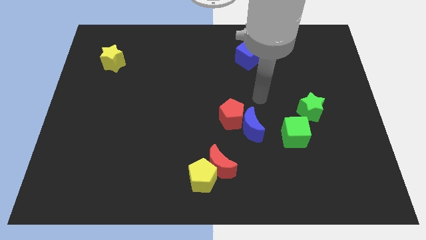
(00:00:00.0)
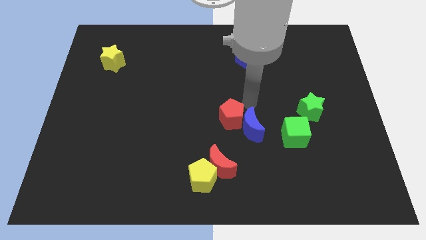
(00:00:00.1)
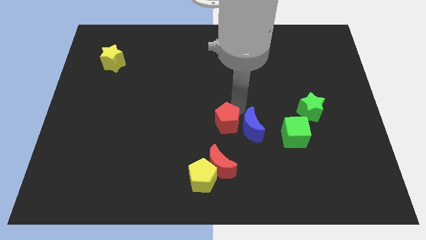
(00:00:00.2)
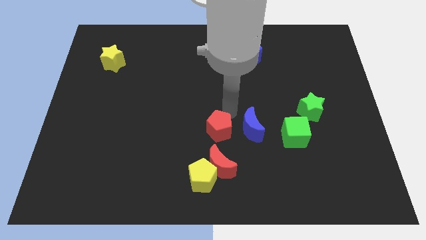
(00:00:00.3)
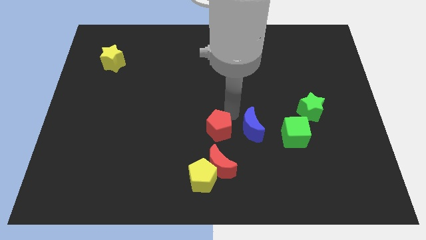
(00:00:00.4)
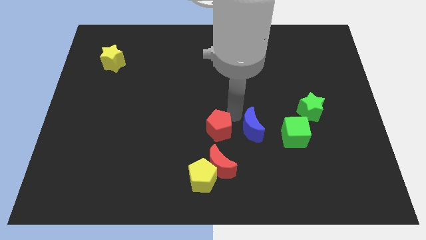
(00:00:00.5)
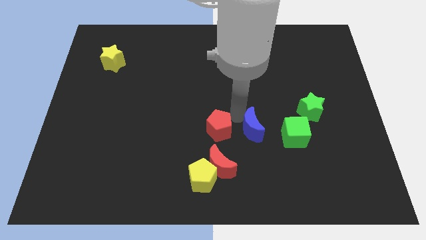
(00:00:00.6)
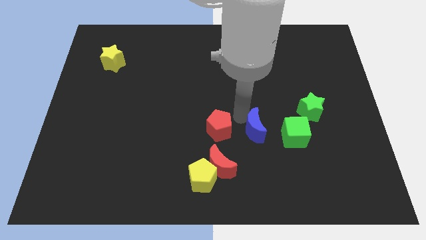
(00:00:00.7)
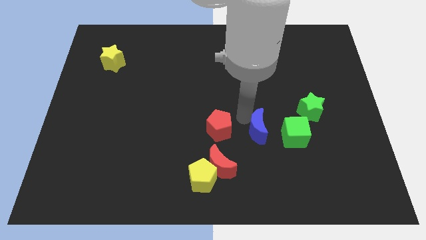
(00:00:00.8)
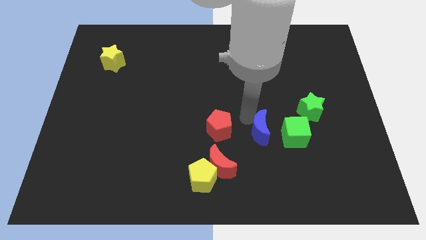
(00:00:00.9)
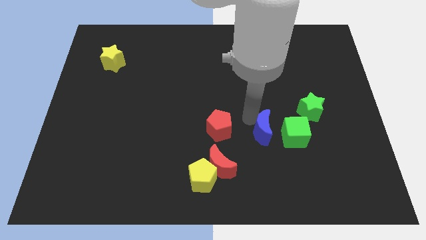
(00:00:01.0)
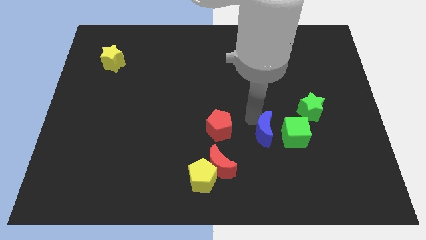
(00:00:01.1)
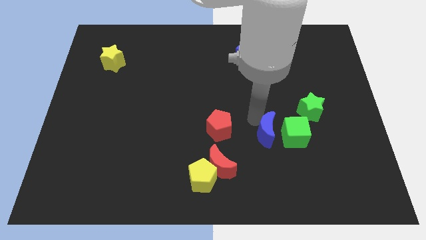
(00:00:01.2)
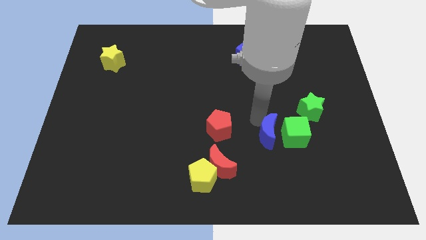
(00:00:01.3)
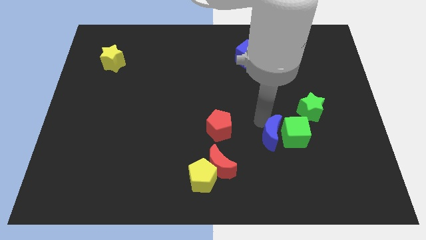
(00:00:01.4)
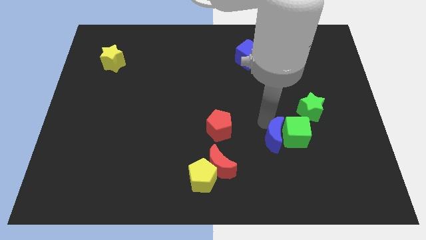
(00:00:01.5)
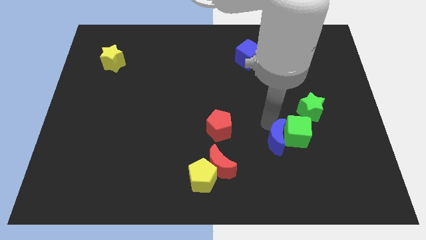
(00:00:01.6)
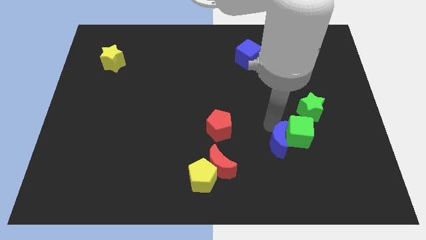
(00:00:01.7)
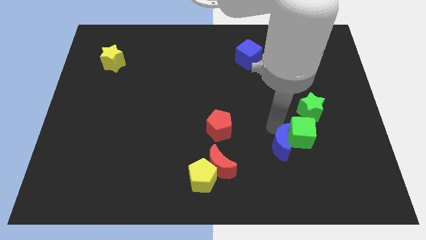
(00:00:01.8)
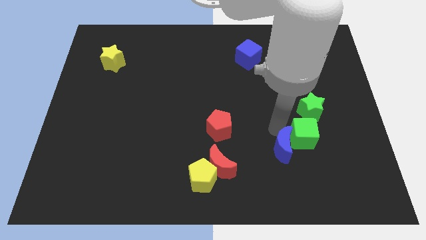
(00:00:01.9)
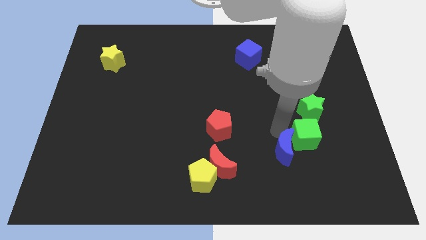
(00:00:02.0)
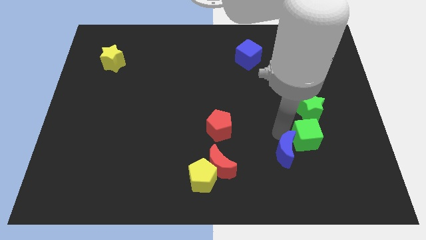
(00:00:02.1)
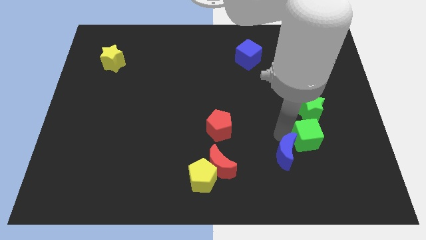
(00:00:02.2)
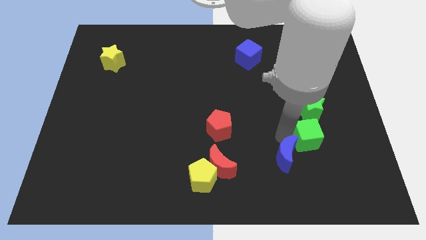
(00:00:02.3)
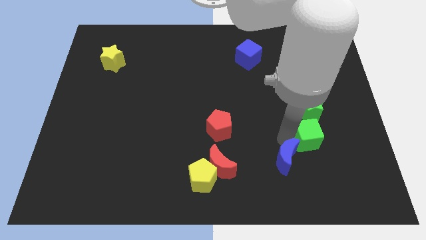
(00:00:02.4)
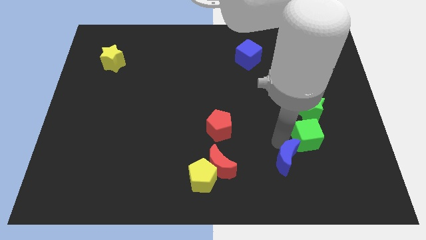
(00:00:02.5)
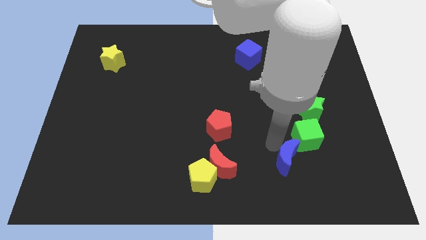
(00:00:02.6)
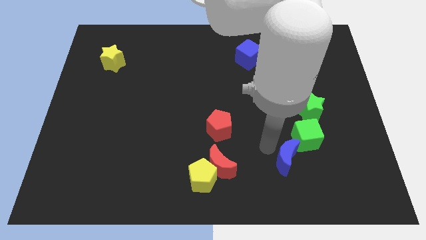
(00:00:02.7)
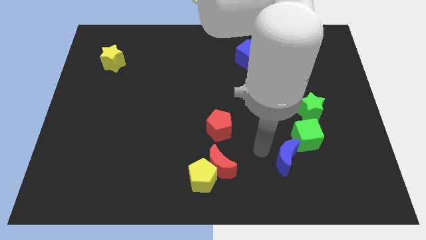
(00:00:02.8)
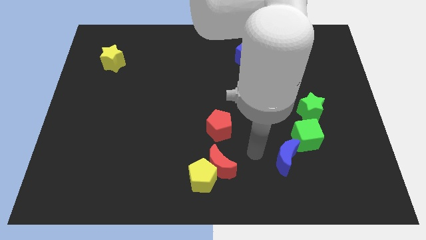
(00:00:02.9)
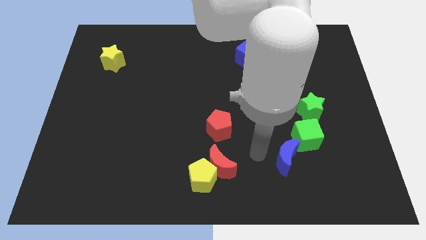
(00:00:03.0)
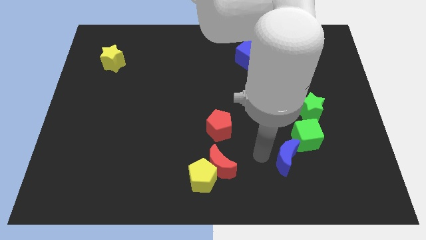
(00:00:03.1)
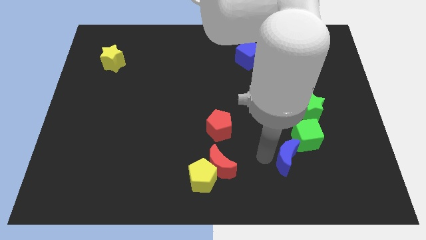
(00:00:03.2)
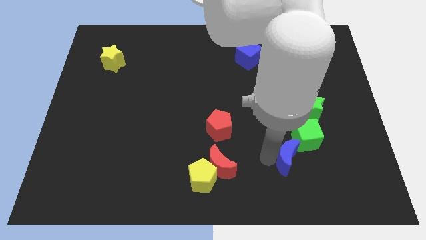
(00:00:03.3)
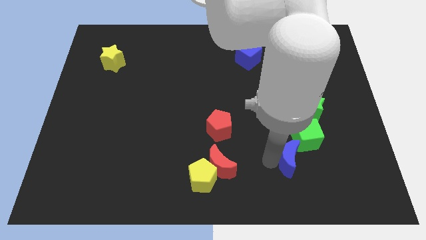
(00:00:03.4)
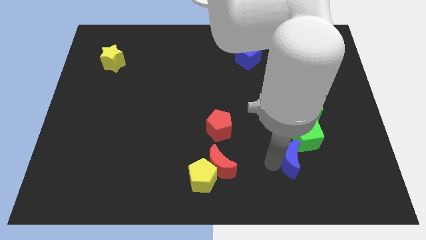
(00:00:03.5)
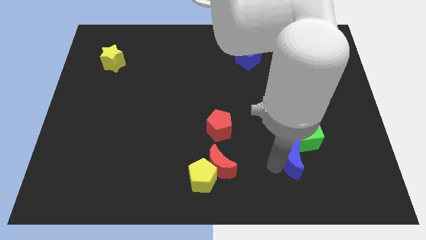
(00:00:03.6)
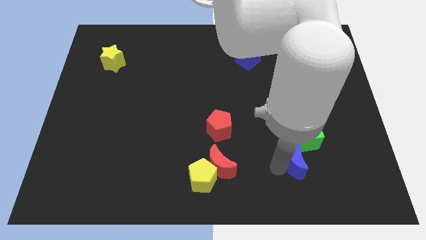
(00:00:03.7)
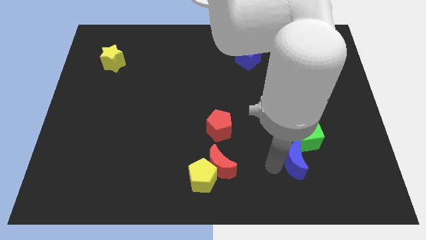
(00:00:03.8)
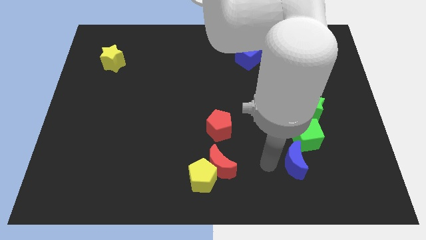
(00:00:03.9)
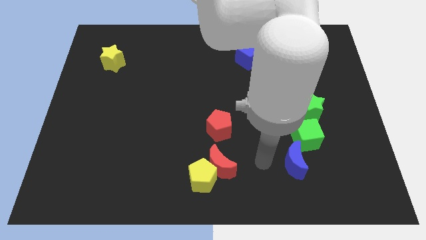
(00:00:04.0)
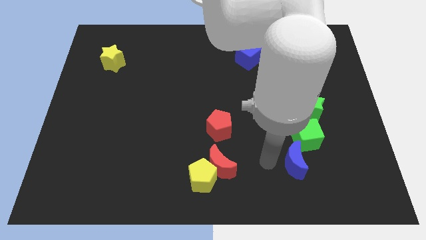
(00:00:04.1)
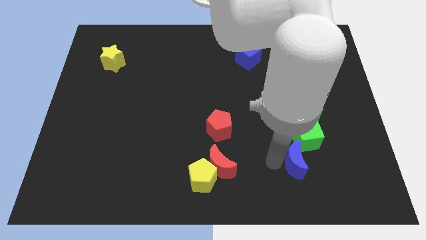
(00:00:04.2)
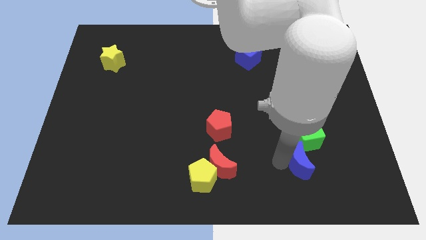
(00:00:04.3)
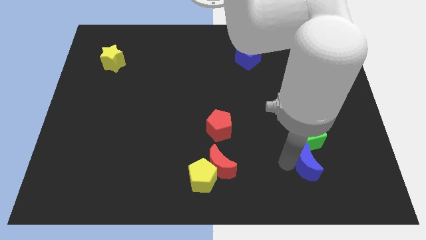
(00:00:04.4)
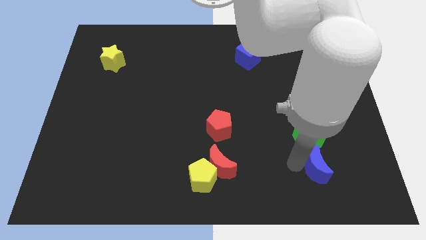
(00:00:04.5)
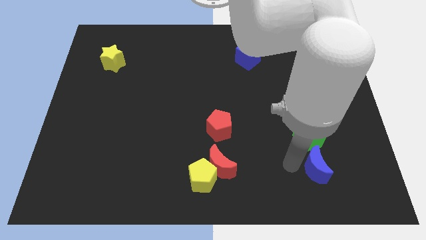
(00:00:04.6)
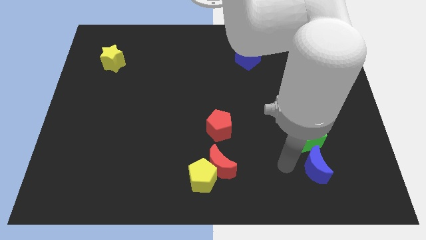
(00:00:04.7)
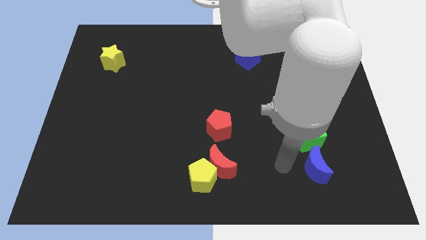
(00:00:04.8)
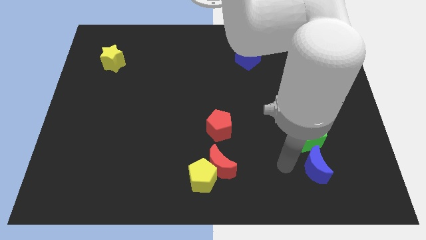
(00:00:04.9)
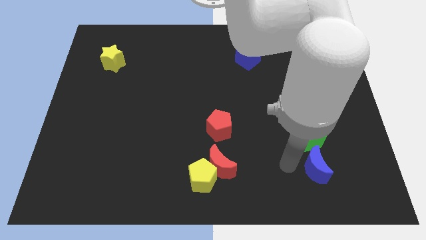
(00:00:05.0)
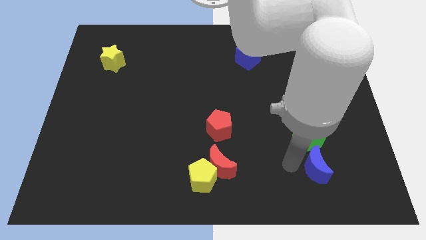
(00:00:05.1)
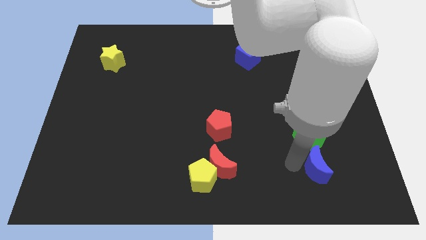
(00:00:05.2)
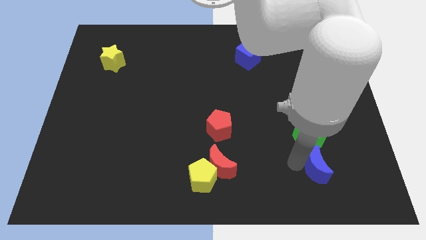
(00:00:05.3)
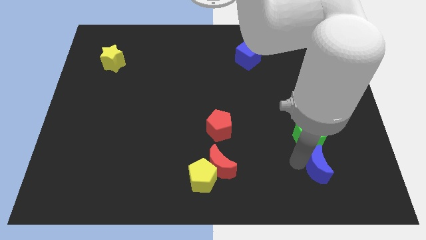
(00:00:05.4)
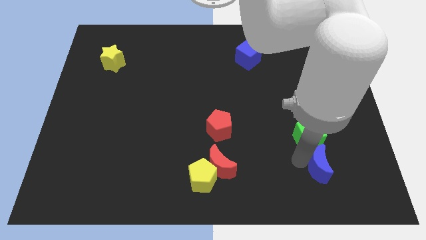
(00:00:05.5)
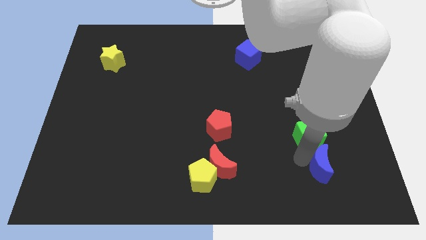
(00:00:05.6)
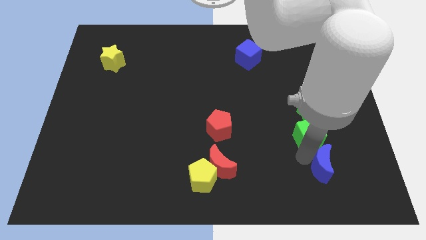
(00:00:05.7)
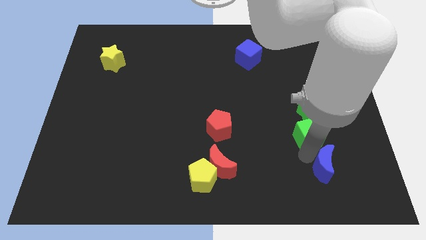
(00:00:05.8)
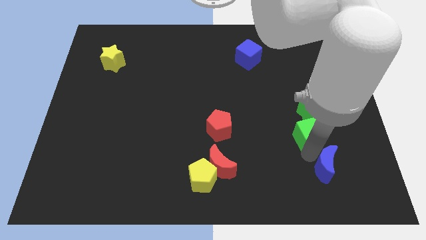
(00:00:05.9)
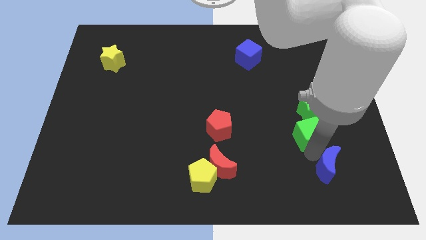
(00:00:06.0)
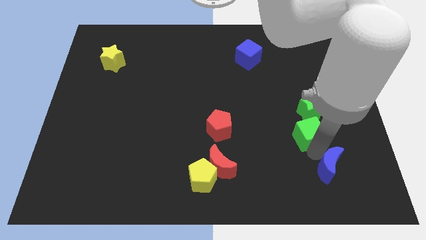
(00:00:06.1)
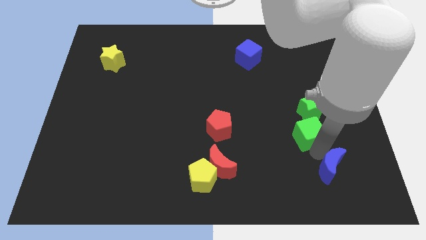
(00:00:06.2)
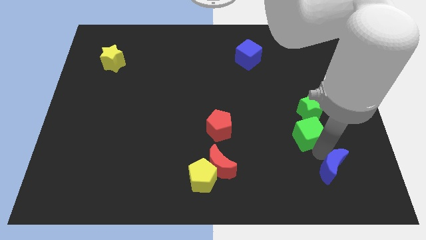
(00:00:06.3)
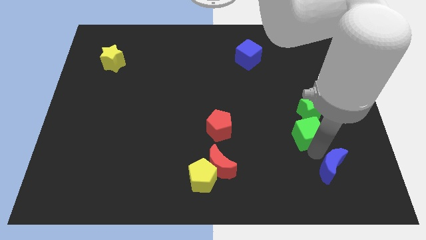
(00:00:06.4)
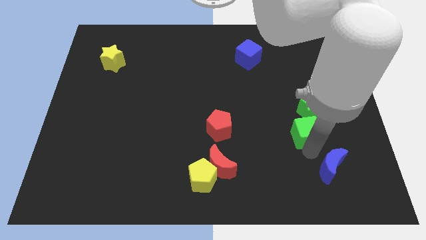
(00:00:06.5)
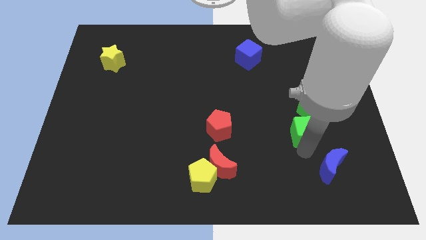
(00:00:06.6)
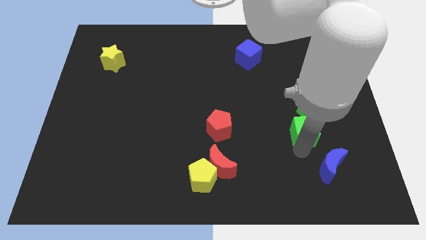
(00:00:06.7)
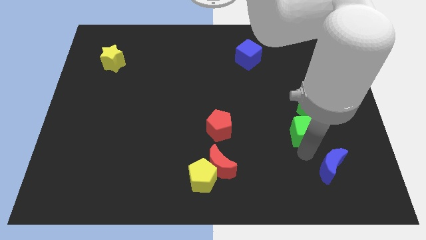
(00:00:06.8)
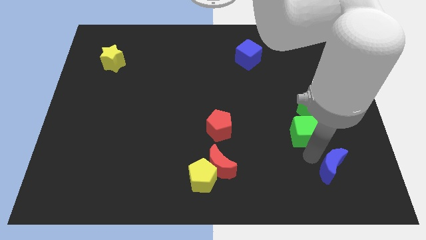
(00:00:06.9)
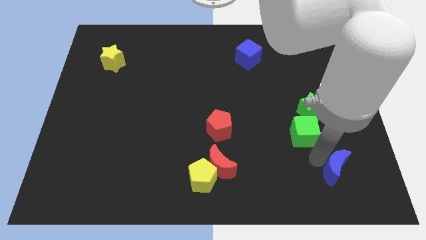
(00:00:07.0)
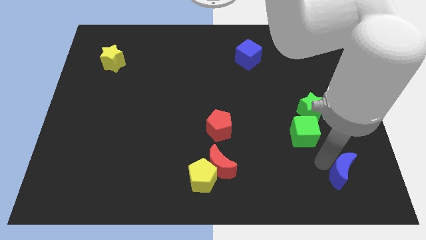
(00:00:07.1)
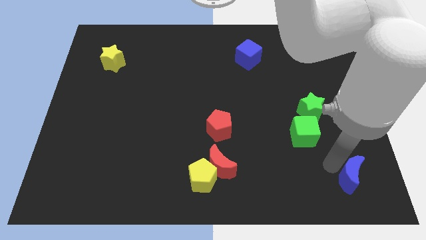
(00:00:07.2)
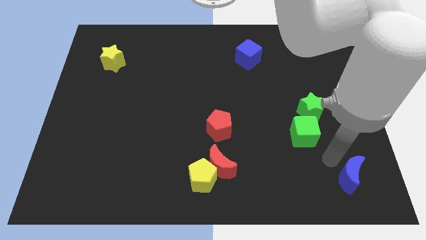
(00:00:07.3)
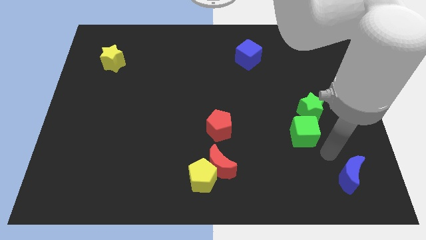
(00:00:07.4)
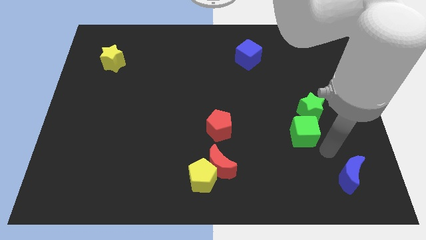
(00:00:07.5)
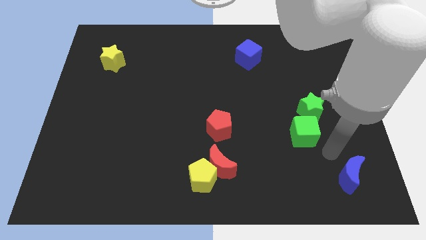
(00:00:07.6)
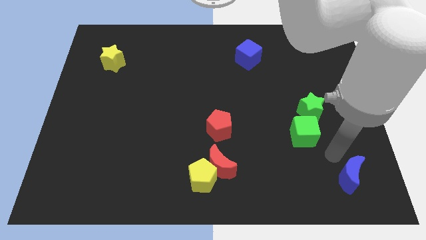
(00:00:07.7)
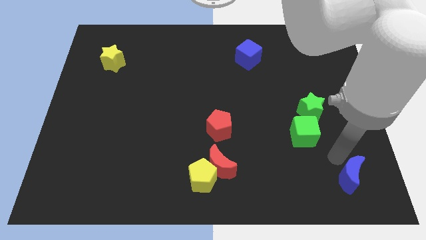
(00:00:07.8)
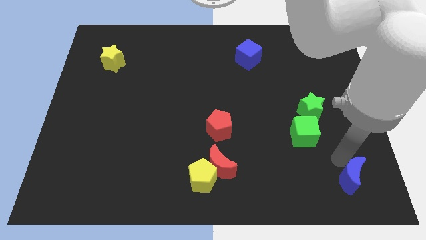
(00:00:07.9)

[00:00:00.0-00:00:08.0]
put the blue moon to the bottom right
